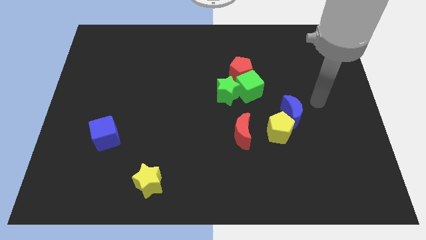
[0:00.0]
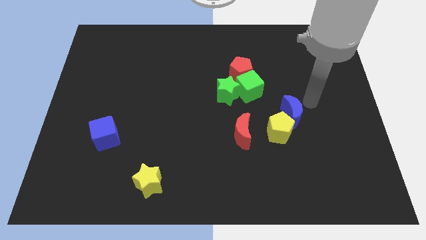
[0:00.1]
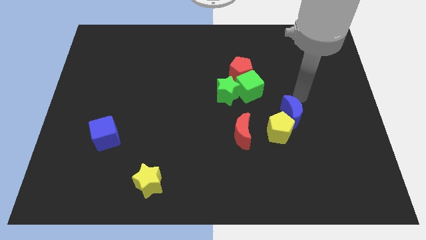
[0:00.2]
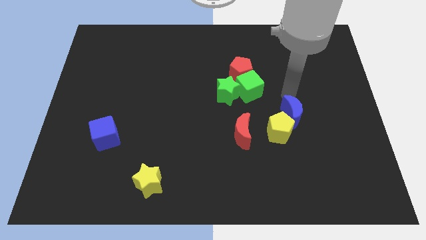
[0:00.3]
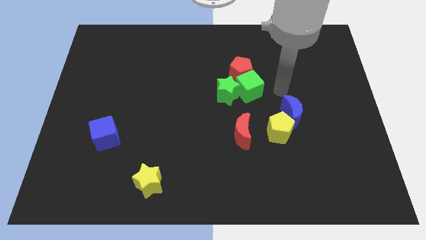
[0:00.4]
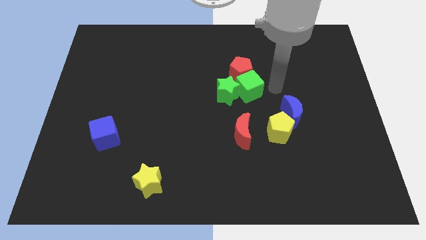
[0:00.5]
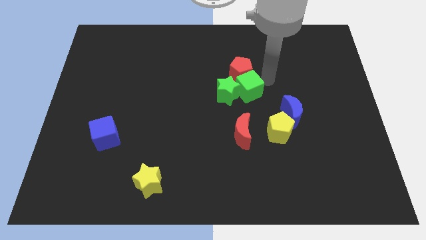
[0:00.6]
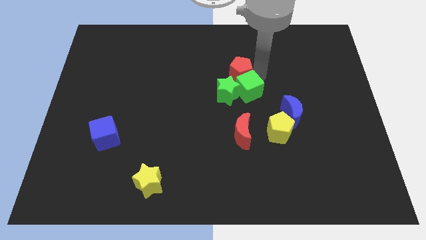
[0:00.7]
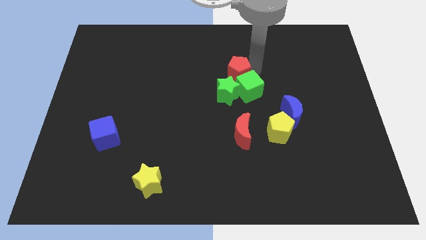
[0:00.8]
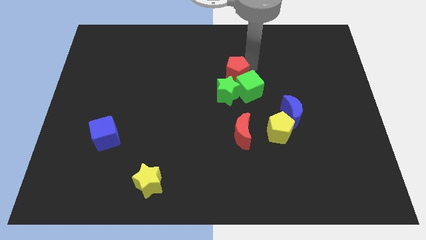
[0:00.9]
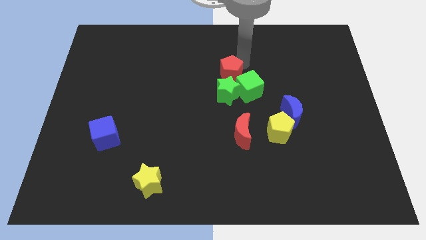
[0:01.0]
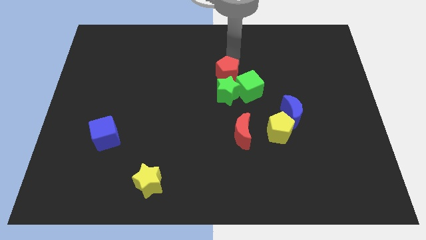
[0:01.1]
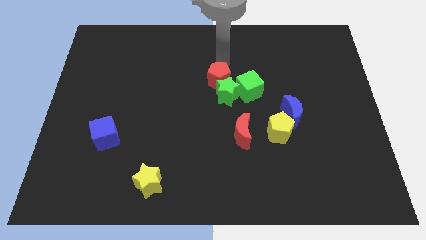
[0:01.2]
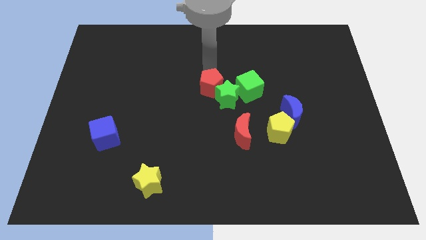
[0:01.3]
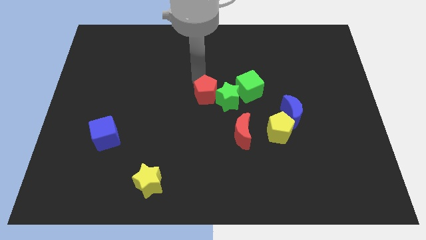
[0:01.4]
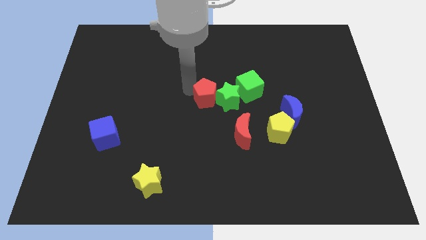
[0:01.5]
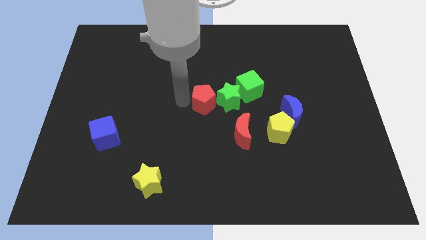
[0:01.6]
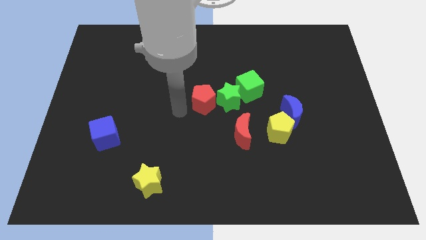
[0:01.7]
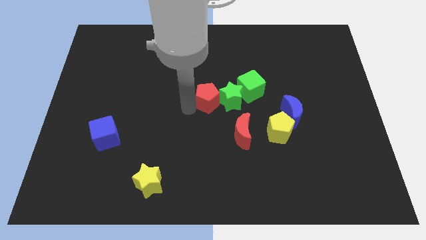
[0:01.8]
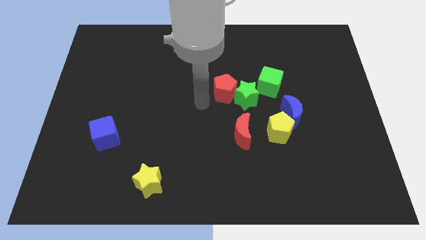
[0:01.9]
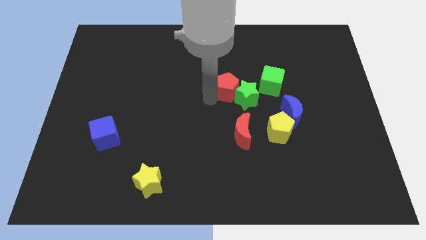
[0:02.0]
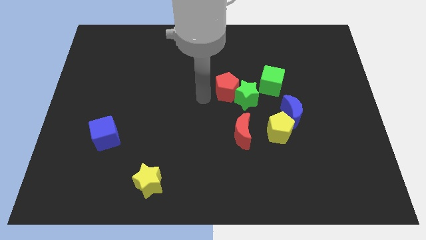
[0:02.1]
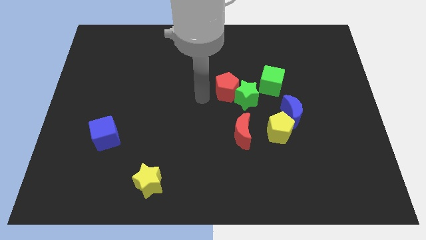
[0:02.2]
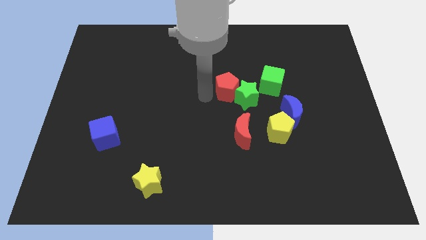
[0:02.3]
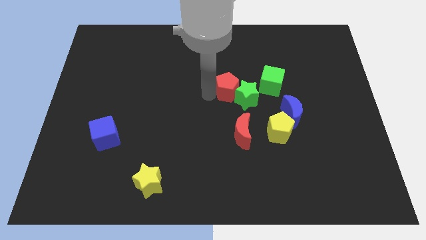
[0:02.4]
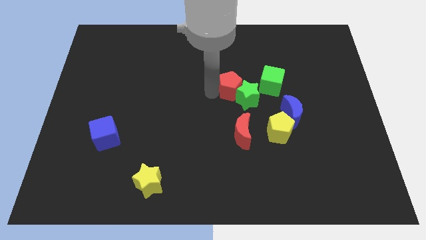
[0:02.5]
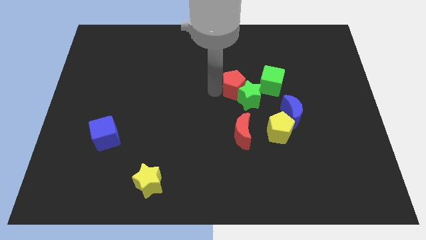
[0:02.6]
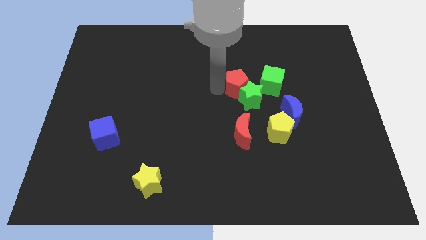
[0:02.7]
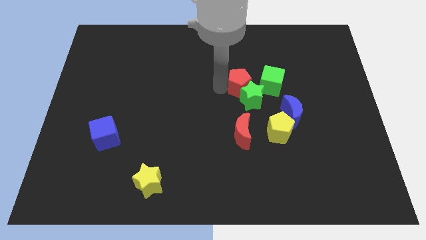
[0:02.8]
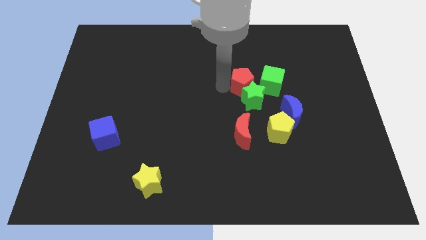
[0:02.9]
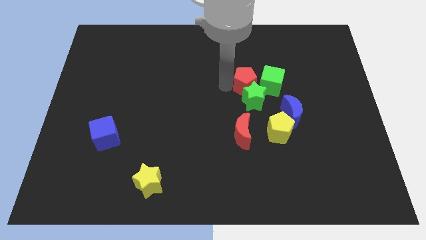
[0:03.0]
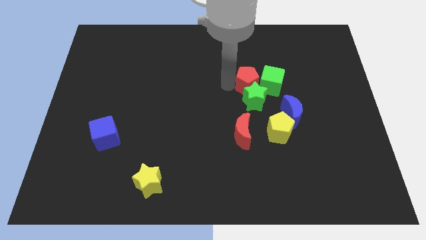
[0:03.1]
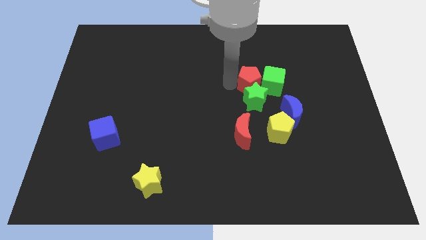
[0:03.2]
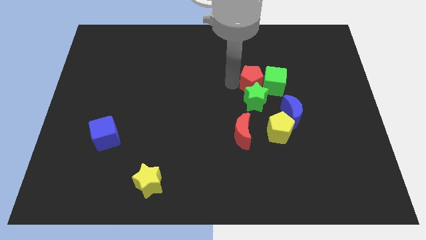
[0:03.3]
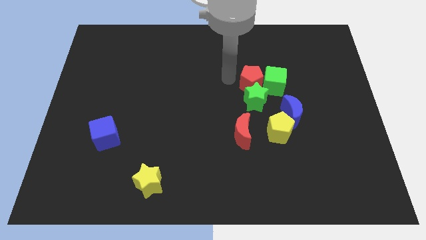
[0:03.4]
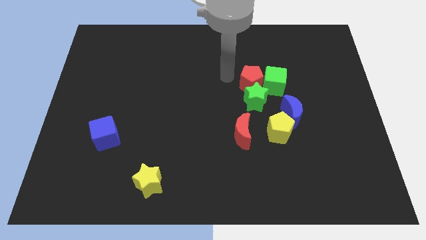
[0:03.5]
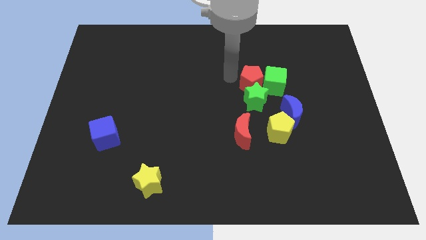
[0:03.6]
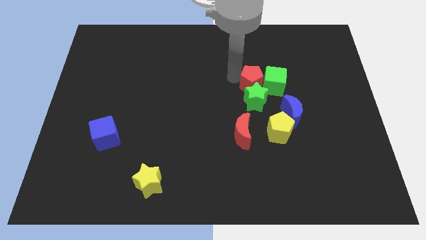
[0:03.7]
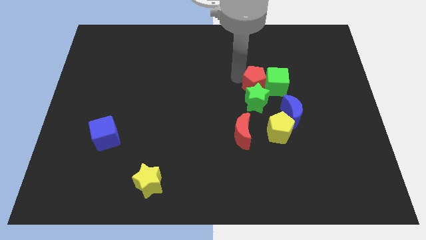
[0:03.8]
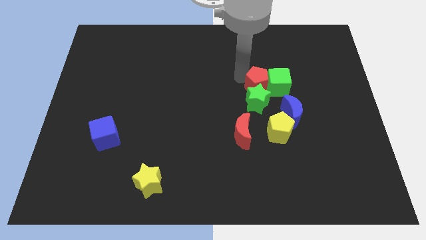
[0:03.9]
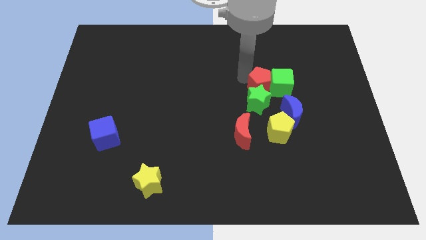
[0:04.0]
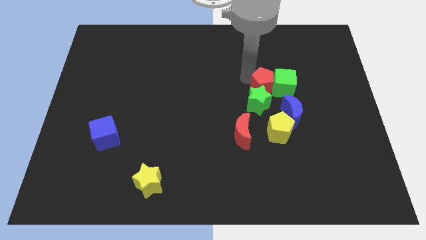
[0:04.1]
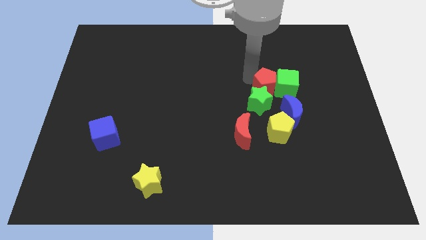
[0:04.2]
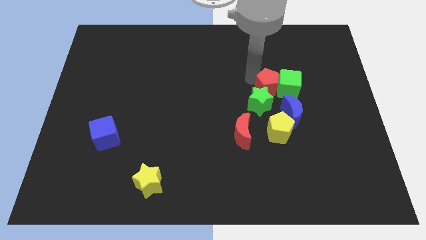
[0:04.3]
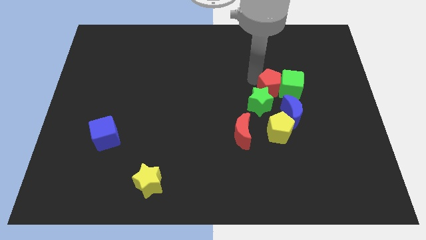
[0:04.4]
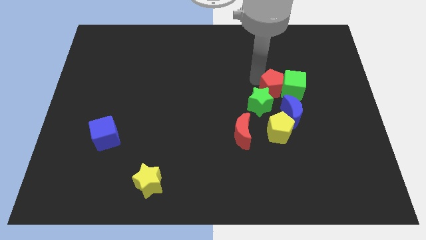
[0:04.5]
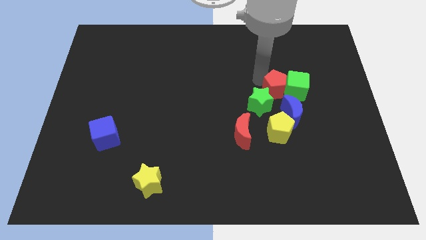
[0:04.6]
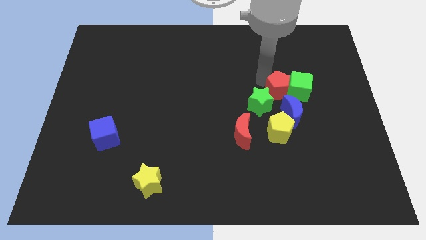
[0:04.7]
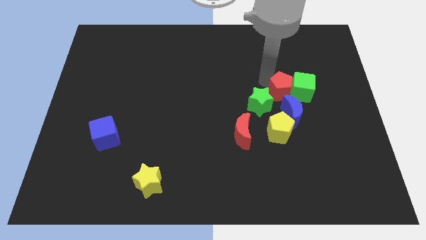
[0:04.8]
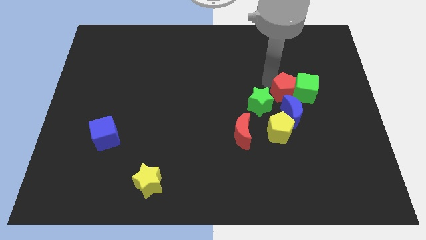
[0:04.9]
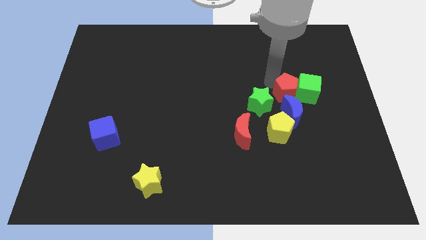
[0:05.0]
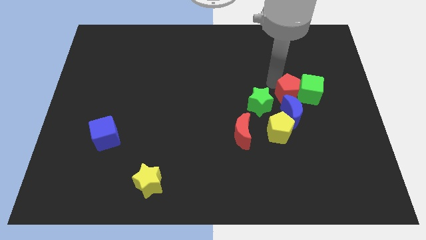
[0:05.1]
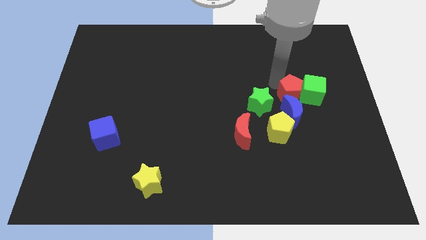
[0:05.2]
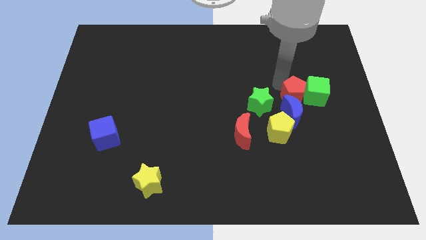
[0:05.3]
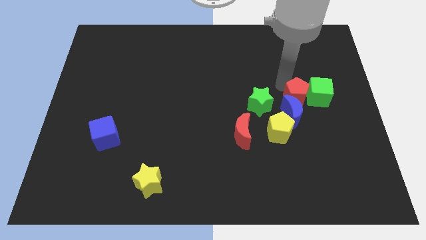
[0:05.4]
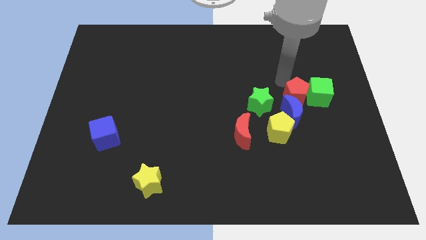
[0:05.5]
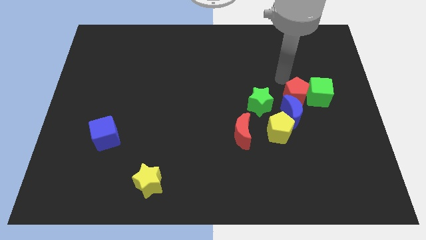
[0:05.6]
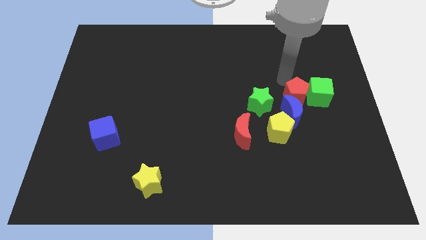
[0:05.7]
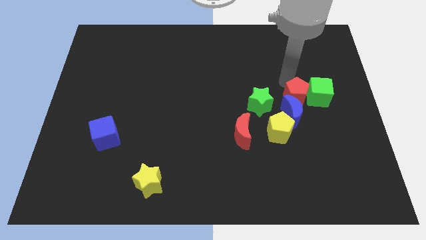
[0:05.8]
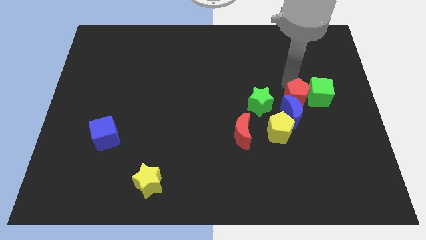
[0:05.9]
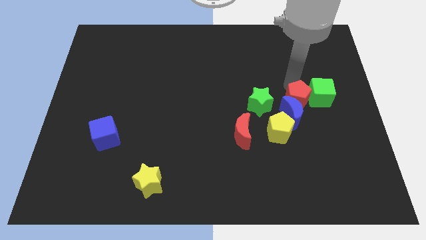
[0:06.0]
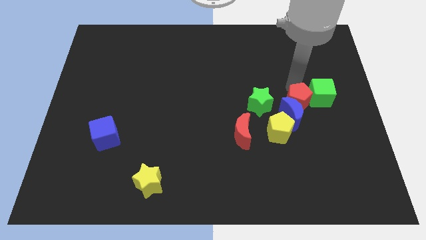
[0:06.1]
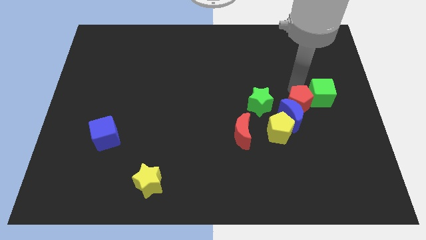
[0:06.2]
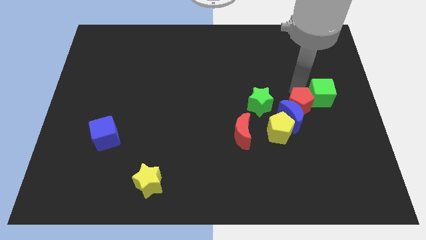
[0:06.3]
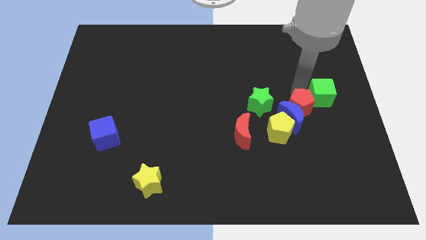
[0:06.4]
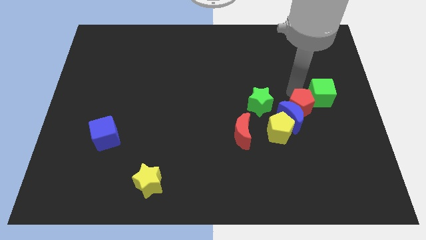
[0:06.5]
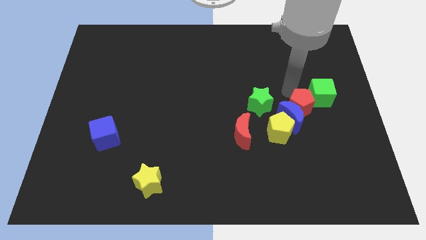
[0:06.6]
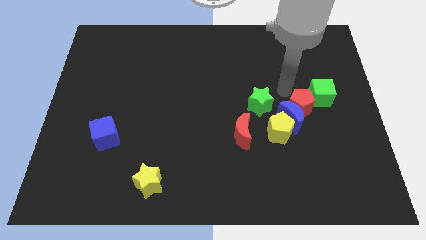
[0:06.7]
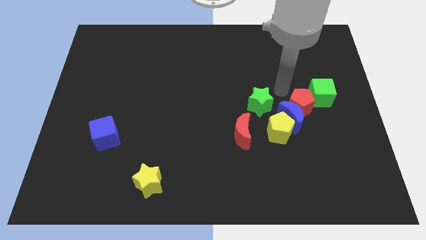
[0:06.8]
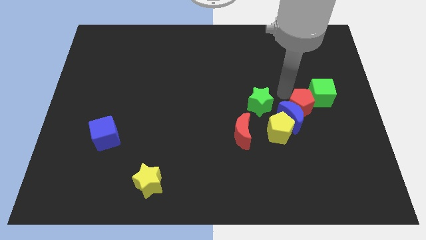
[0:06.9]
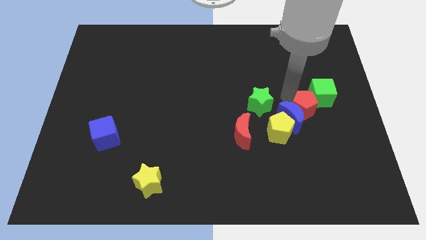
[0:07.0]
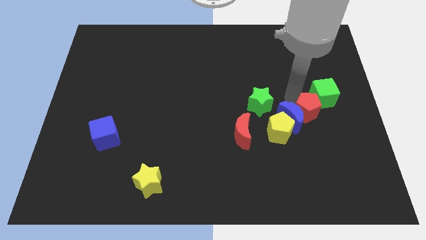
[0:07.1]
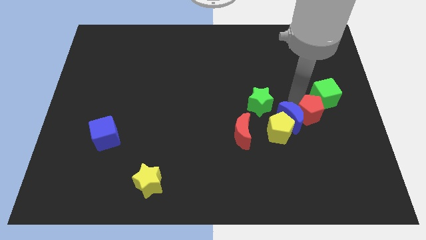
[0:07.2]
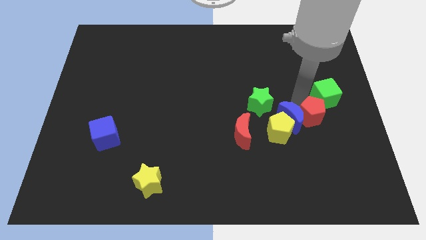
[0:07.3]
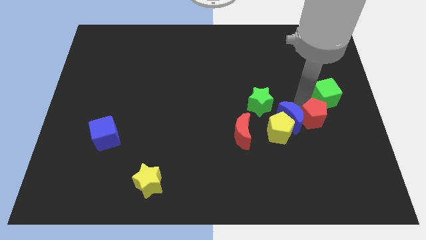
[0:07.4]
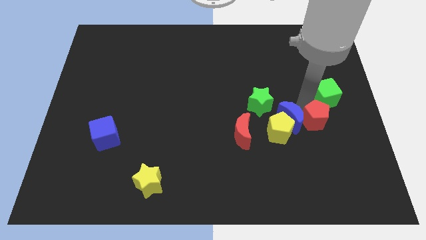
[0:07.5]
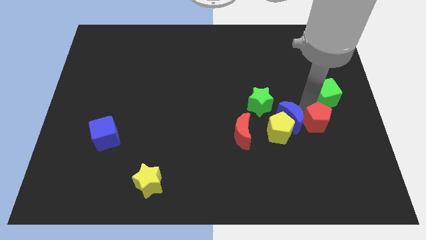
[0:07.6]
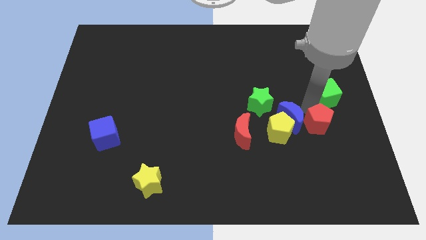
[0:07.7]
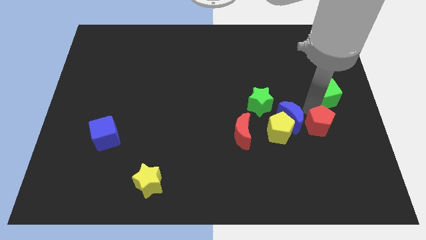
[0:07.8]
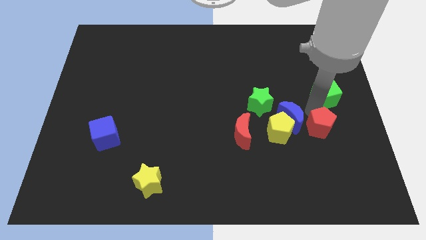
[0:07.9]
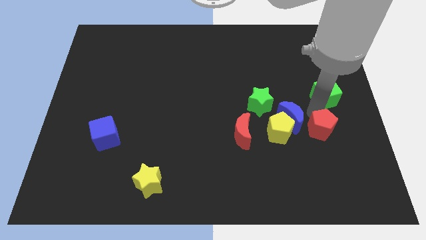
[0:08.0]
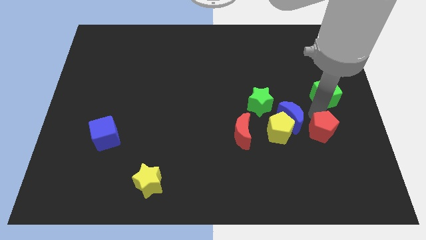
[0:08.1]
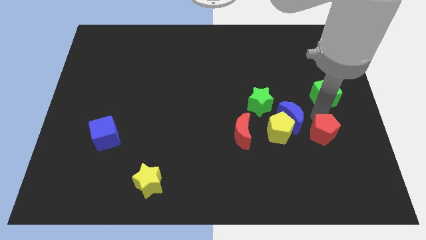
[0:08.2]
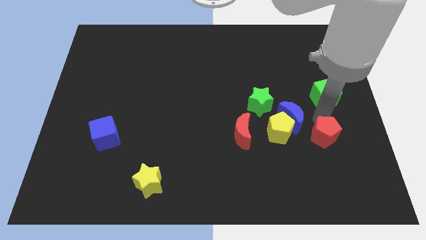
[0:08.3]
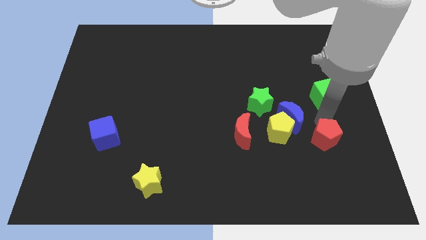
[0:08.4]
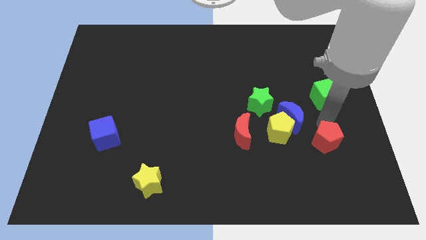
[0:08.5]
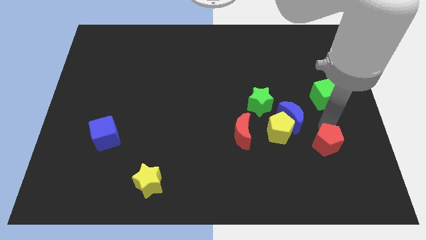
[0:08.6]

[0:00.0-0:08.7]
slide the red pentagon to the bottom right side of the yellow pentagon
